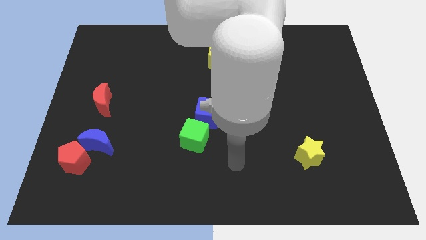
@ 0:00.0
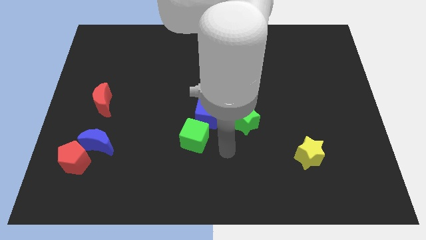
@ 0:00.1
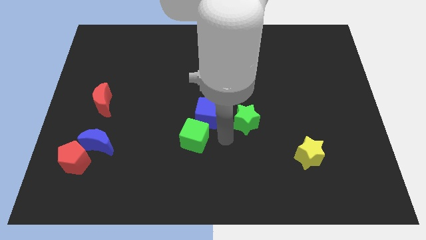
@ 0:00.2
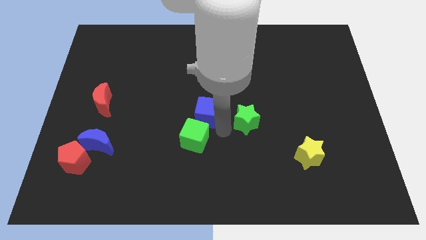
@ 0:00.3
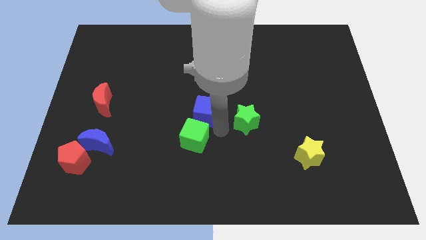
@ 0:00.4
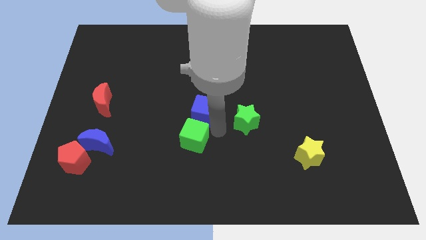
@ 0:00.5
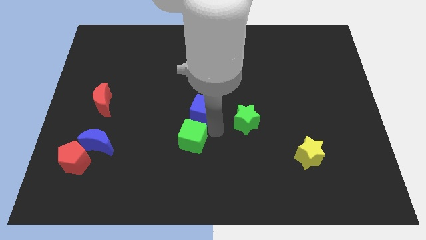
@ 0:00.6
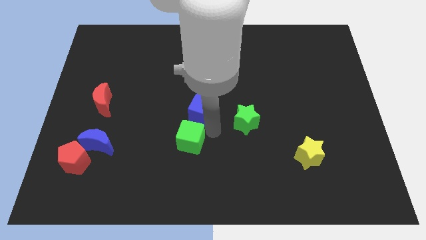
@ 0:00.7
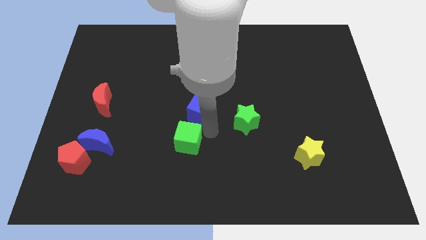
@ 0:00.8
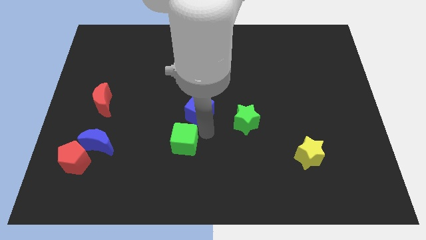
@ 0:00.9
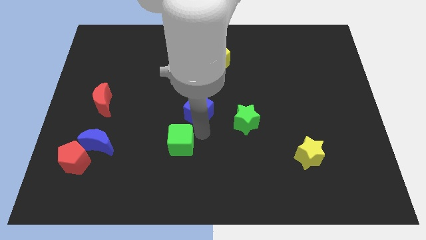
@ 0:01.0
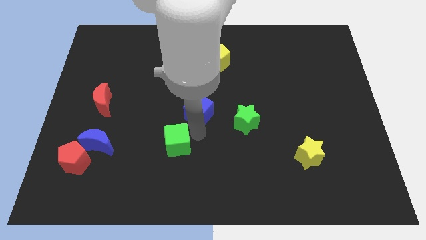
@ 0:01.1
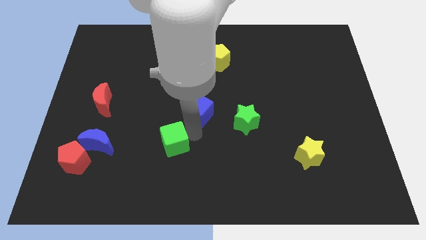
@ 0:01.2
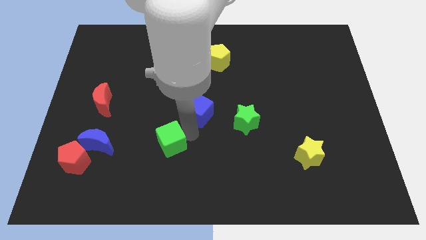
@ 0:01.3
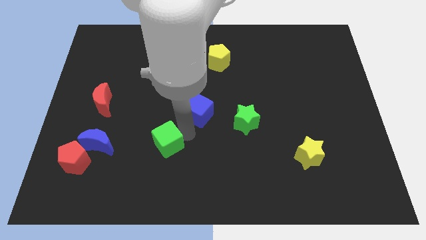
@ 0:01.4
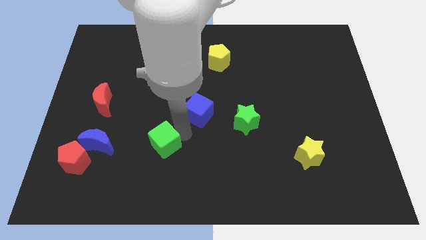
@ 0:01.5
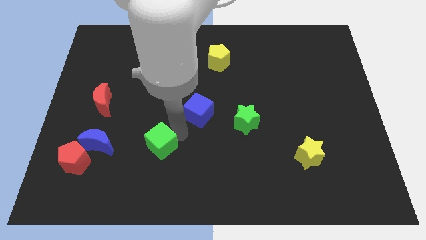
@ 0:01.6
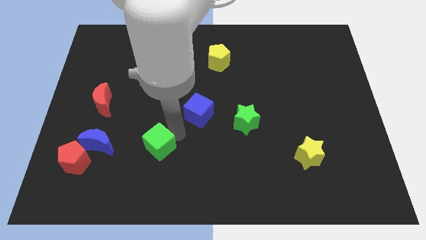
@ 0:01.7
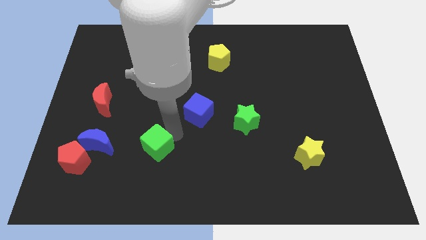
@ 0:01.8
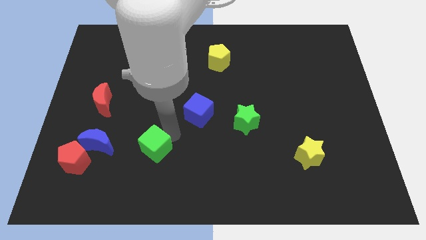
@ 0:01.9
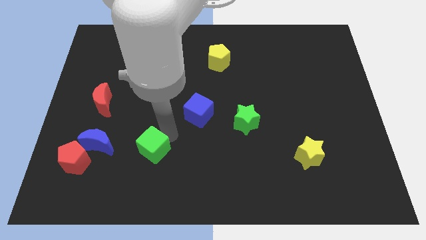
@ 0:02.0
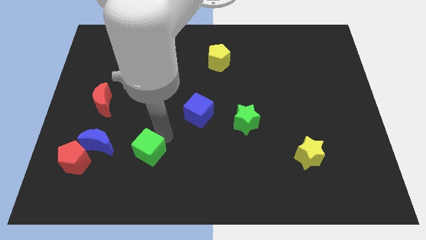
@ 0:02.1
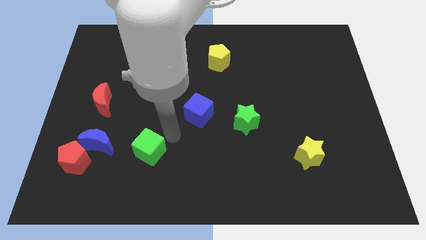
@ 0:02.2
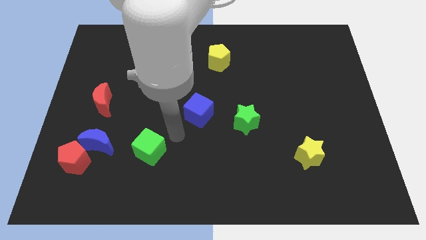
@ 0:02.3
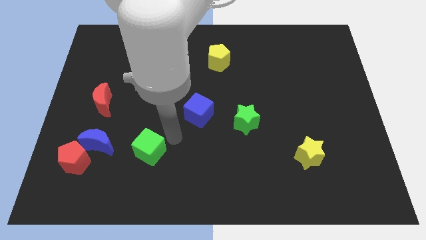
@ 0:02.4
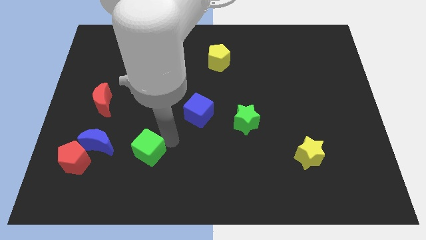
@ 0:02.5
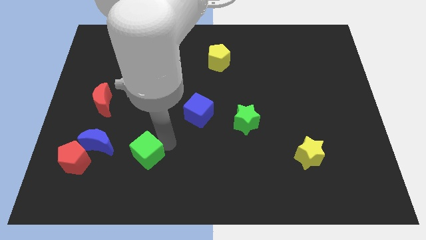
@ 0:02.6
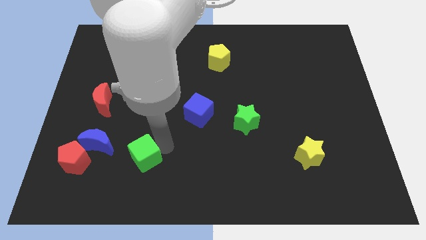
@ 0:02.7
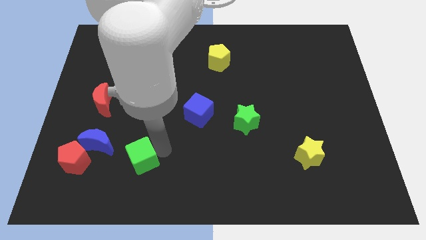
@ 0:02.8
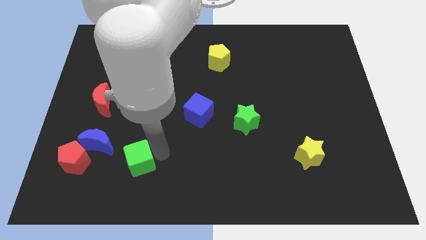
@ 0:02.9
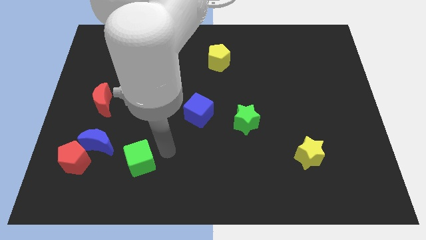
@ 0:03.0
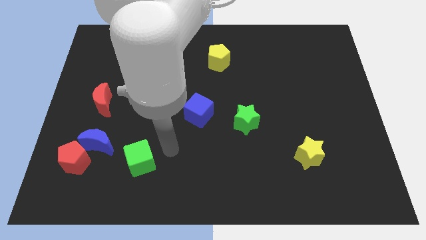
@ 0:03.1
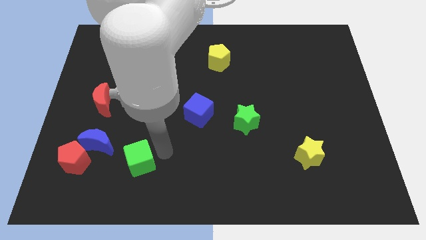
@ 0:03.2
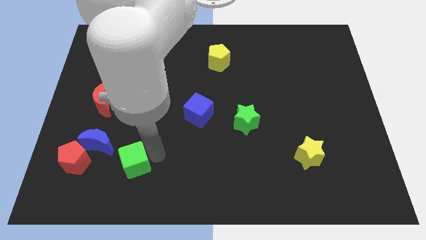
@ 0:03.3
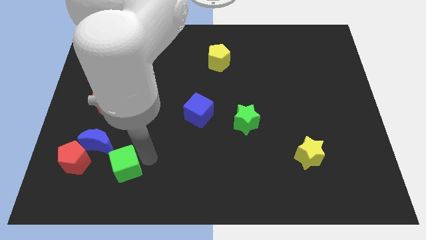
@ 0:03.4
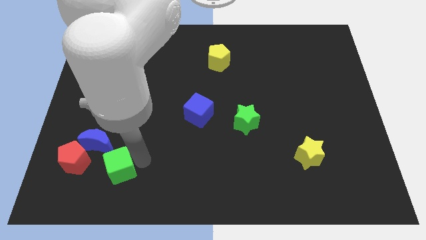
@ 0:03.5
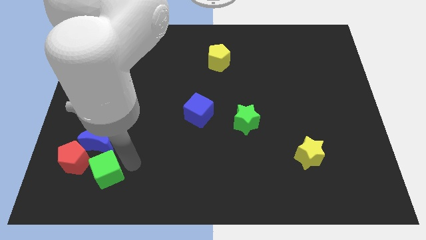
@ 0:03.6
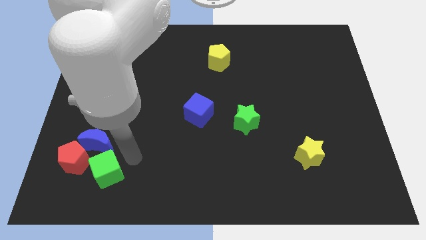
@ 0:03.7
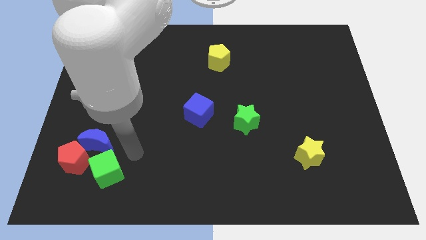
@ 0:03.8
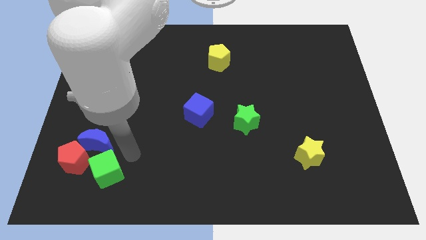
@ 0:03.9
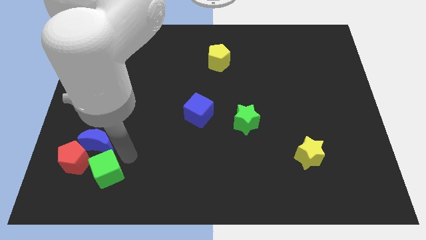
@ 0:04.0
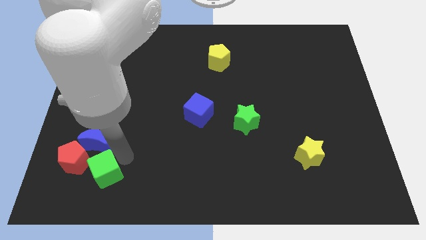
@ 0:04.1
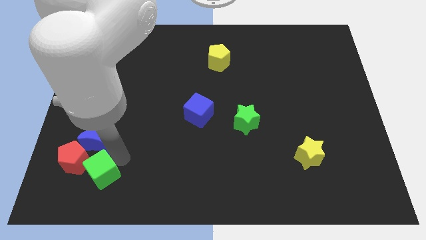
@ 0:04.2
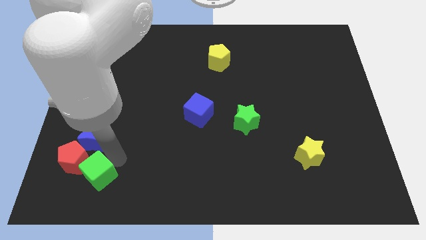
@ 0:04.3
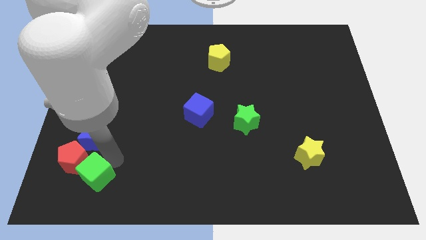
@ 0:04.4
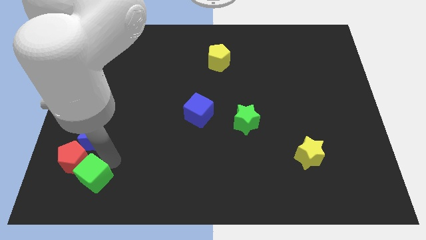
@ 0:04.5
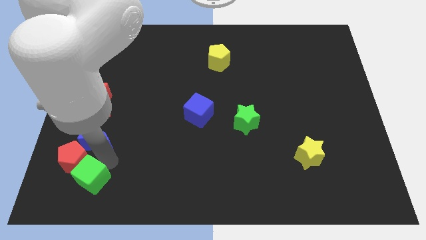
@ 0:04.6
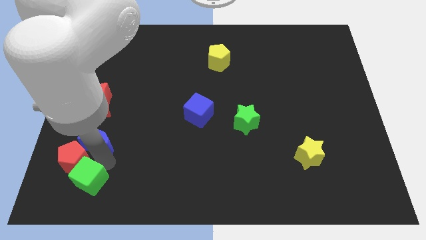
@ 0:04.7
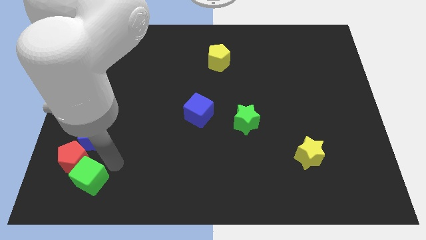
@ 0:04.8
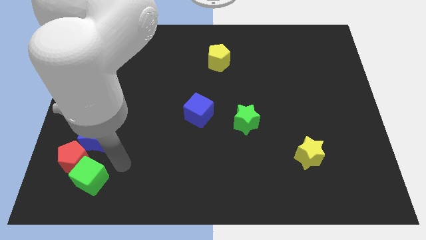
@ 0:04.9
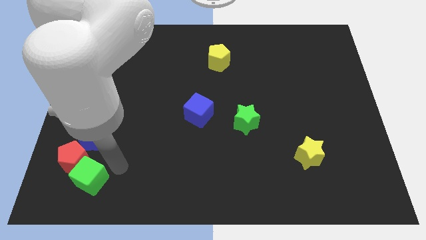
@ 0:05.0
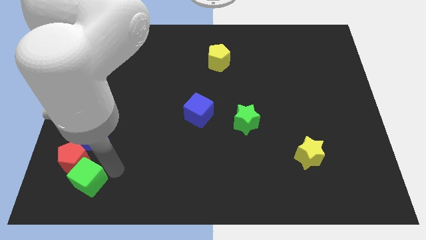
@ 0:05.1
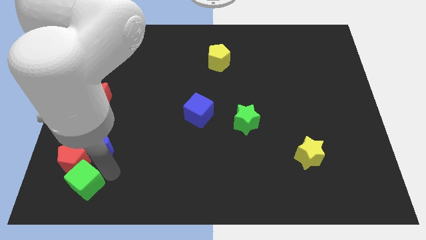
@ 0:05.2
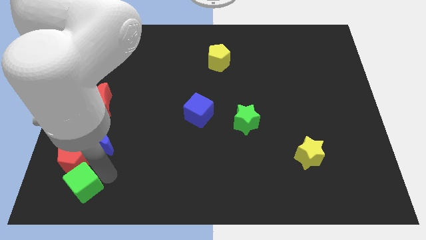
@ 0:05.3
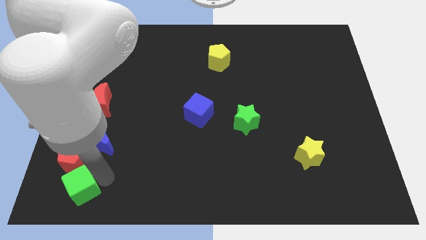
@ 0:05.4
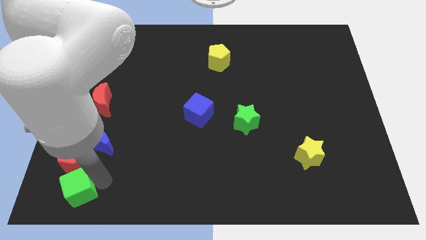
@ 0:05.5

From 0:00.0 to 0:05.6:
push the green cube to the bottom left corner
